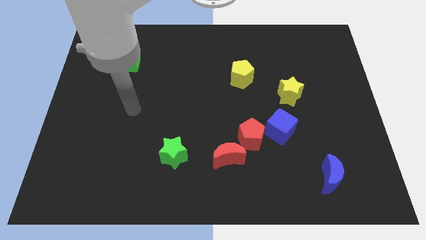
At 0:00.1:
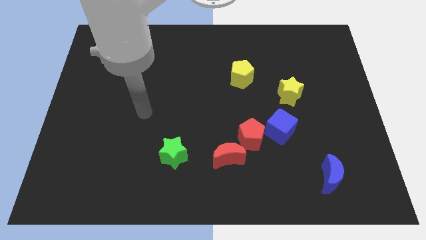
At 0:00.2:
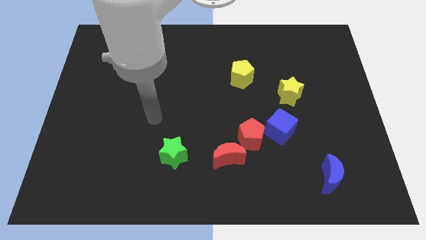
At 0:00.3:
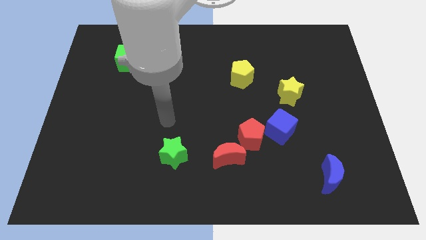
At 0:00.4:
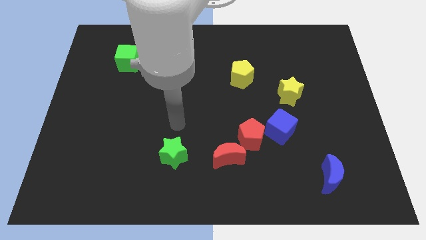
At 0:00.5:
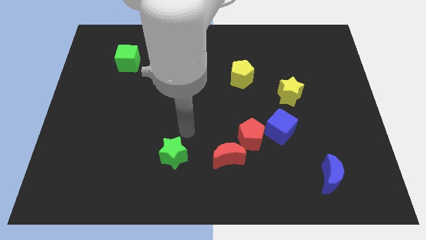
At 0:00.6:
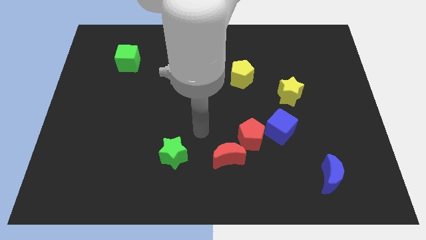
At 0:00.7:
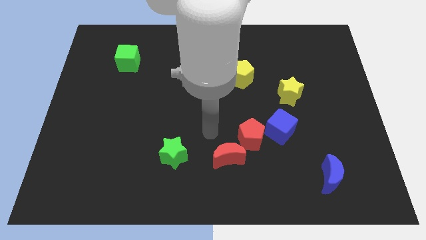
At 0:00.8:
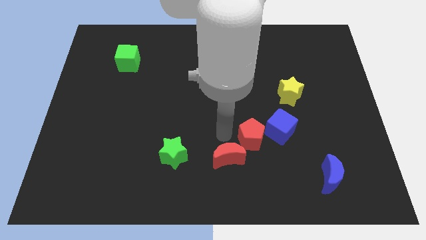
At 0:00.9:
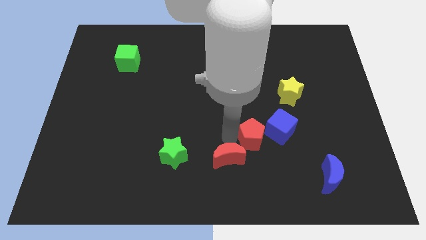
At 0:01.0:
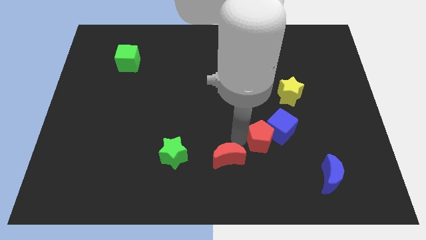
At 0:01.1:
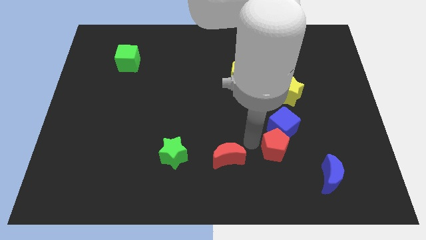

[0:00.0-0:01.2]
move the red moon away from the red pentagon

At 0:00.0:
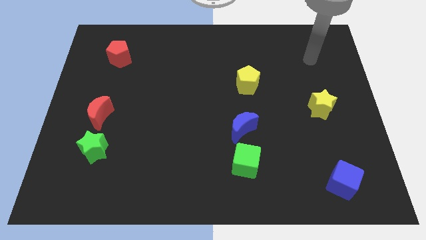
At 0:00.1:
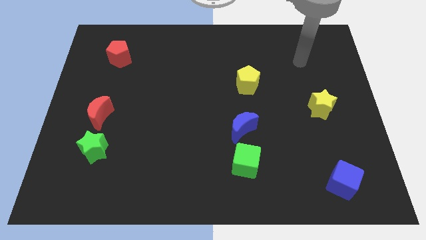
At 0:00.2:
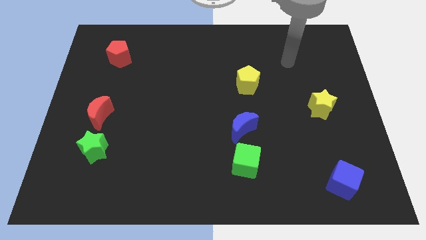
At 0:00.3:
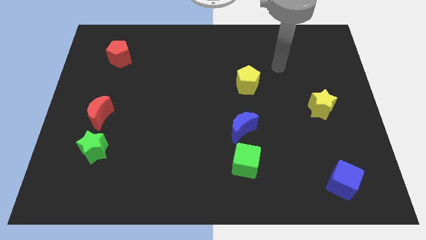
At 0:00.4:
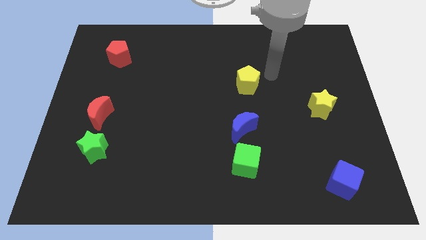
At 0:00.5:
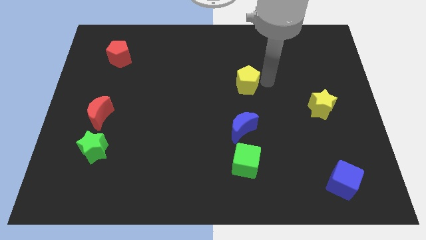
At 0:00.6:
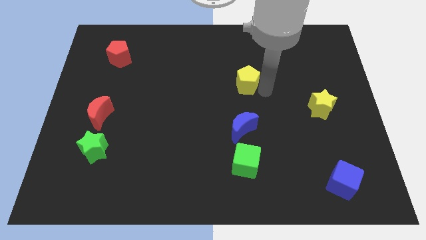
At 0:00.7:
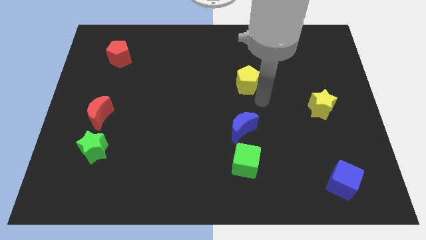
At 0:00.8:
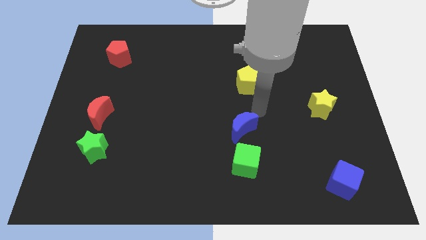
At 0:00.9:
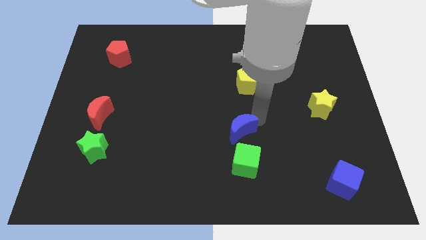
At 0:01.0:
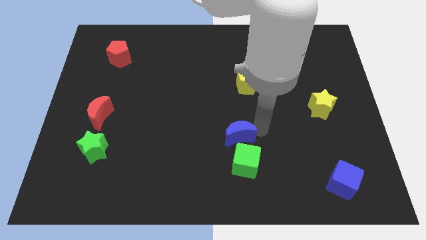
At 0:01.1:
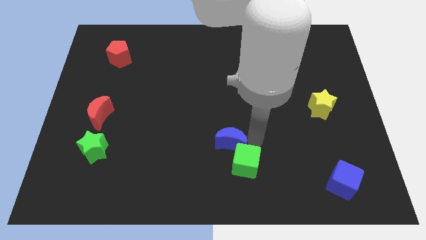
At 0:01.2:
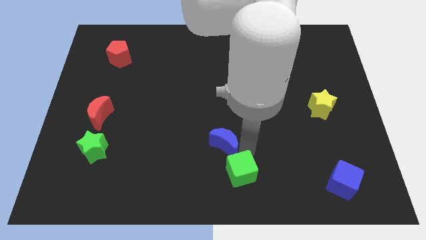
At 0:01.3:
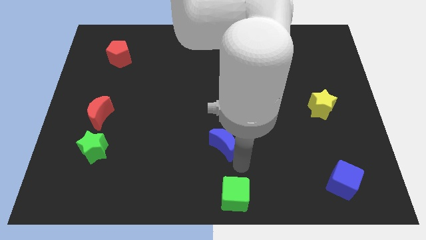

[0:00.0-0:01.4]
pull the blue moon apart from the green cube

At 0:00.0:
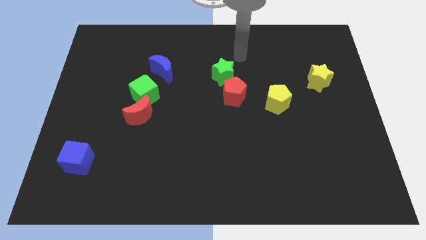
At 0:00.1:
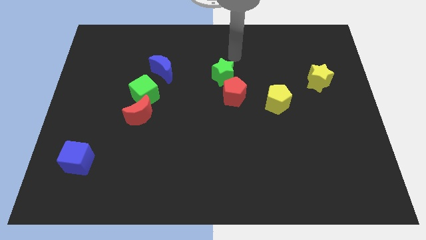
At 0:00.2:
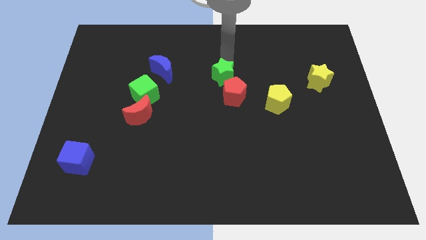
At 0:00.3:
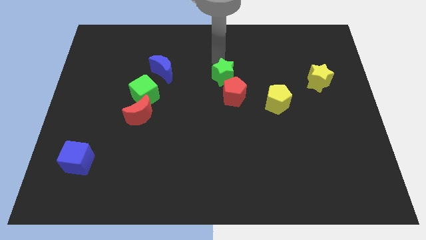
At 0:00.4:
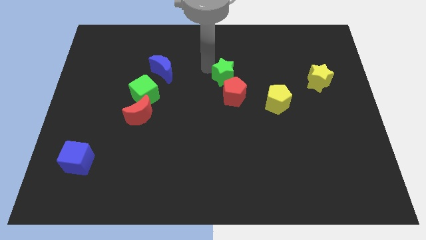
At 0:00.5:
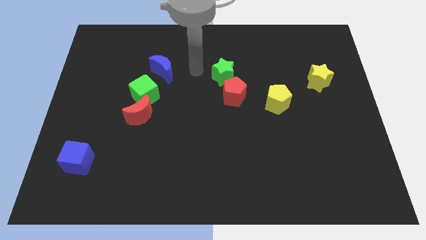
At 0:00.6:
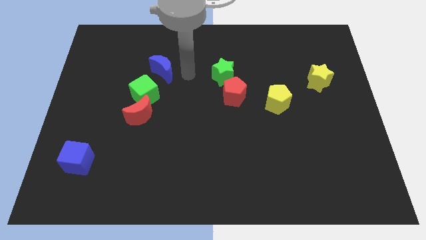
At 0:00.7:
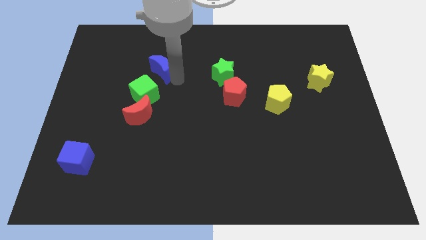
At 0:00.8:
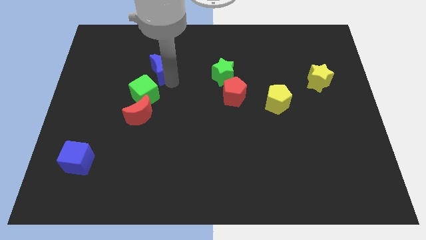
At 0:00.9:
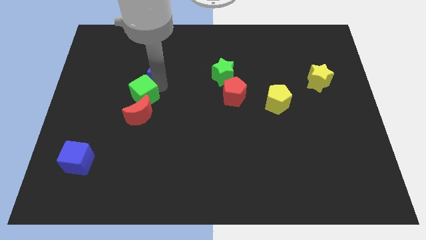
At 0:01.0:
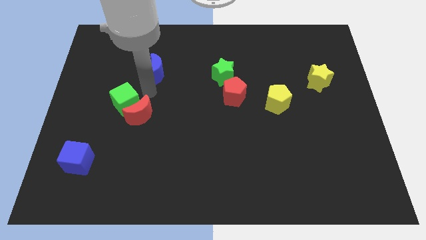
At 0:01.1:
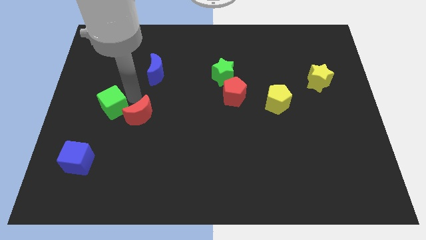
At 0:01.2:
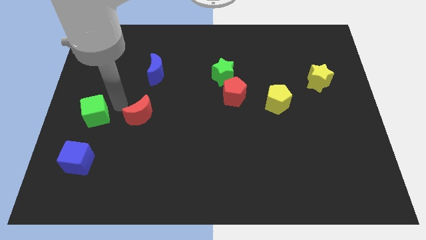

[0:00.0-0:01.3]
pull the red moon apart from the green cube

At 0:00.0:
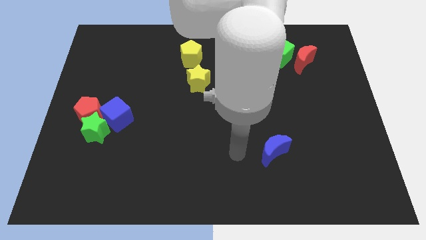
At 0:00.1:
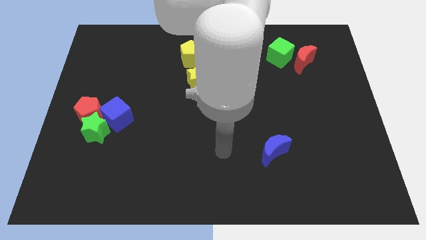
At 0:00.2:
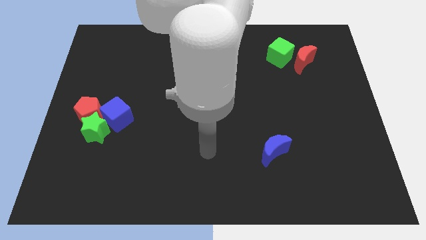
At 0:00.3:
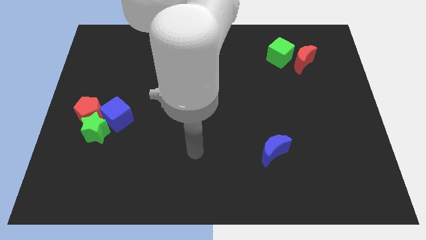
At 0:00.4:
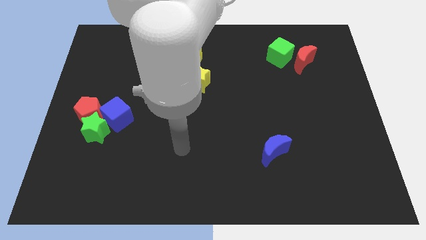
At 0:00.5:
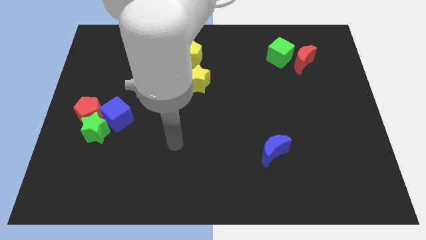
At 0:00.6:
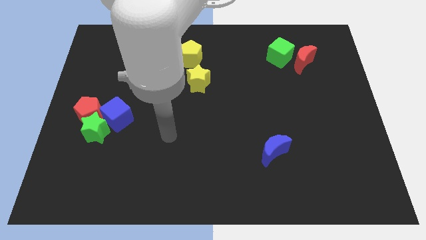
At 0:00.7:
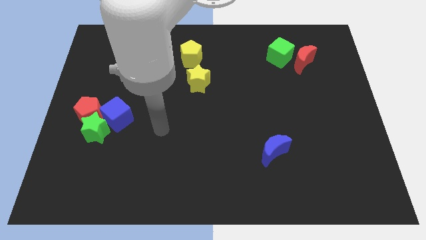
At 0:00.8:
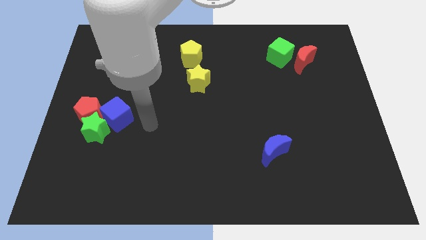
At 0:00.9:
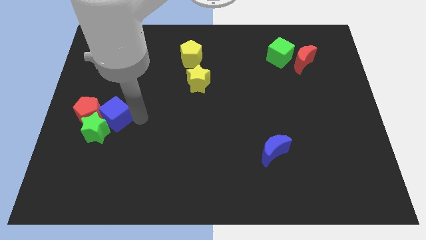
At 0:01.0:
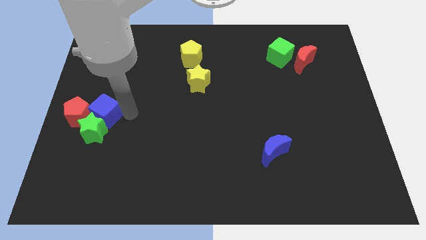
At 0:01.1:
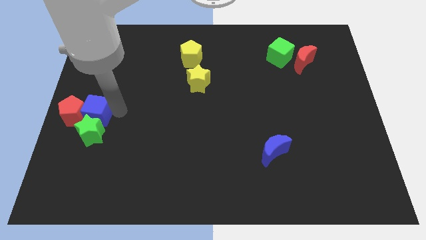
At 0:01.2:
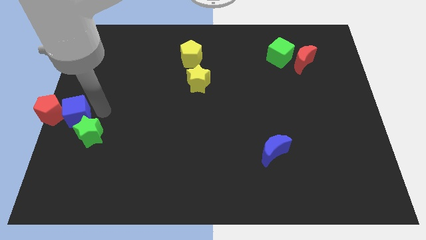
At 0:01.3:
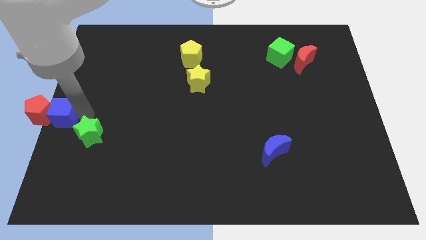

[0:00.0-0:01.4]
move the green star away from the red pentagon and blue cube

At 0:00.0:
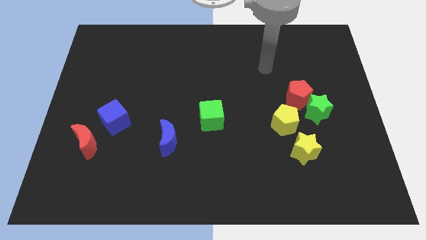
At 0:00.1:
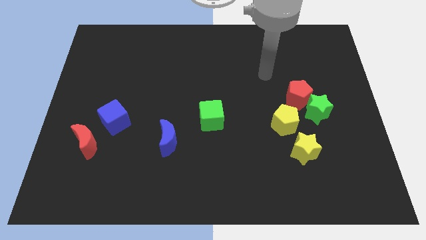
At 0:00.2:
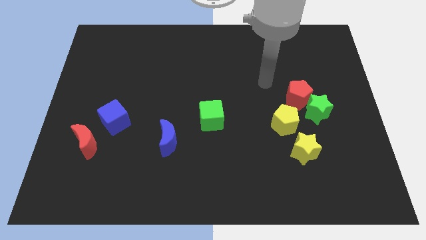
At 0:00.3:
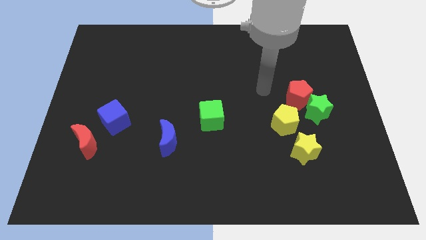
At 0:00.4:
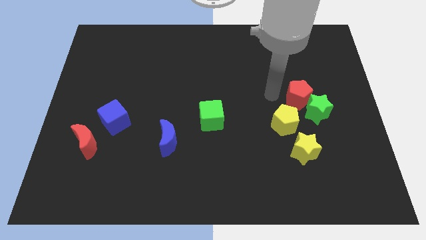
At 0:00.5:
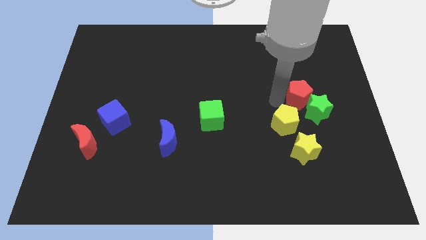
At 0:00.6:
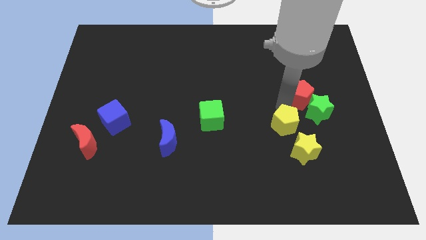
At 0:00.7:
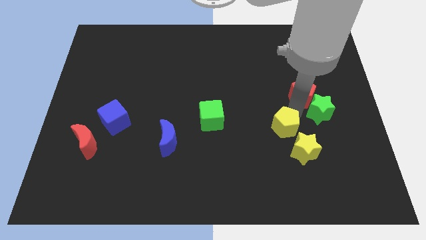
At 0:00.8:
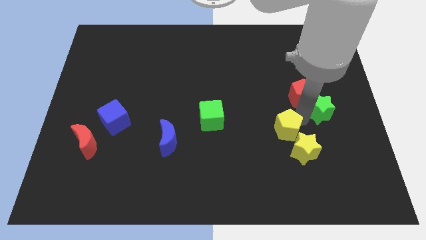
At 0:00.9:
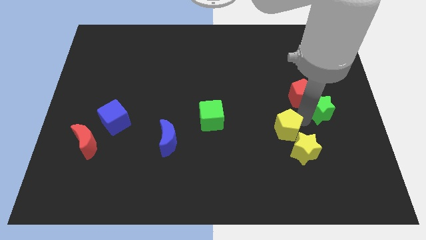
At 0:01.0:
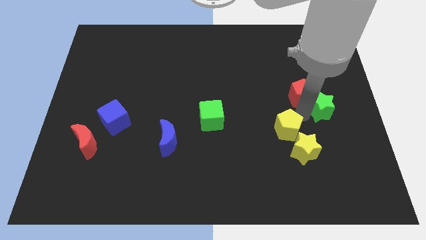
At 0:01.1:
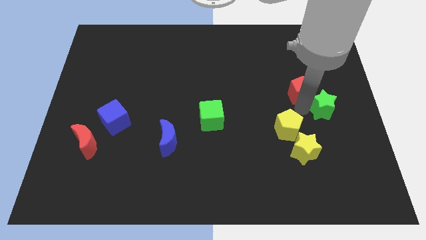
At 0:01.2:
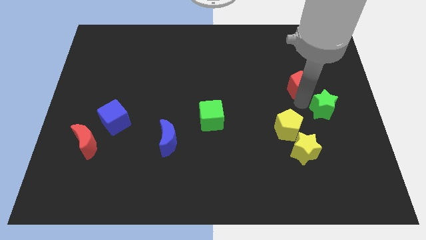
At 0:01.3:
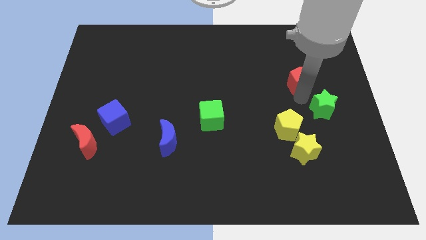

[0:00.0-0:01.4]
separate the red pentagon from the green star and yellow pentagon

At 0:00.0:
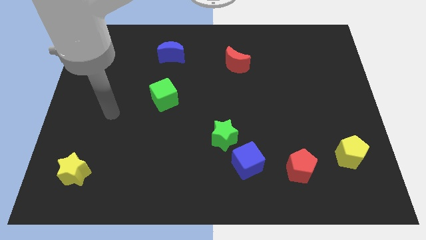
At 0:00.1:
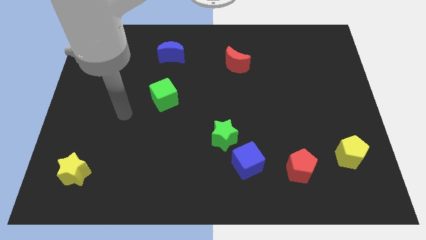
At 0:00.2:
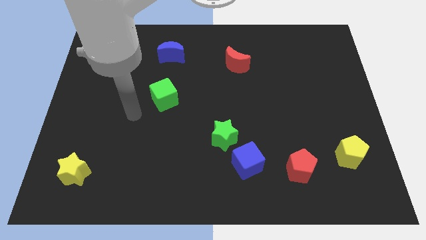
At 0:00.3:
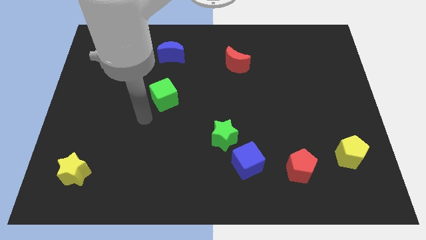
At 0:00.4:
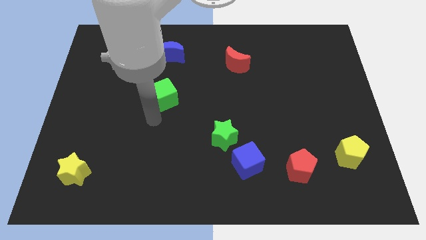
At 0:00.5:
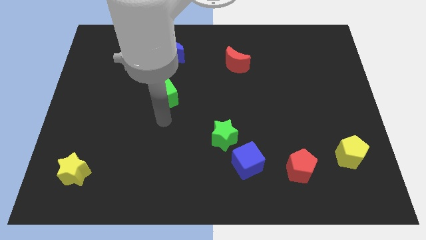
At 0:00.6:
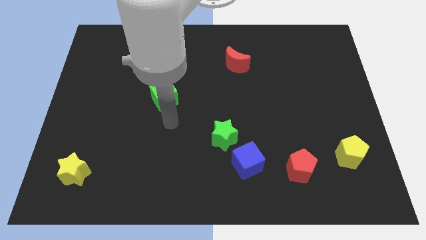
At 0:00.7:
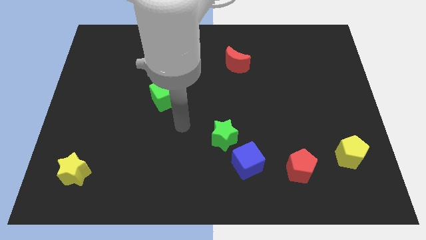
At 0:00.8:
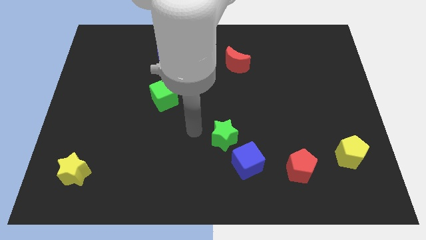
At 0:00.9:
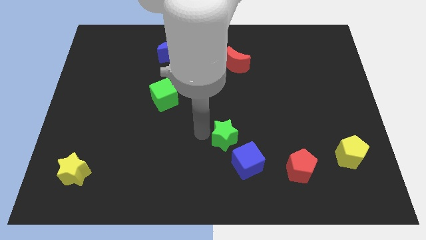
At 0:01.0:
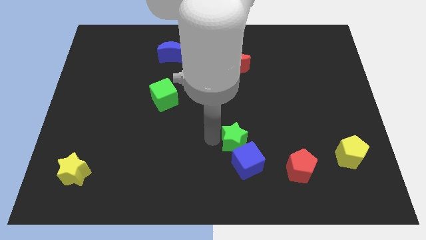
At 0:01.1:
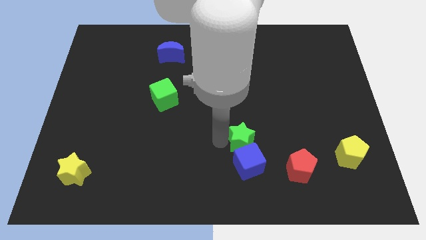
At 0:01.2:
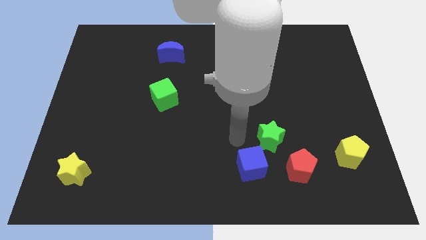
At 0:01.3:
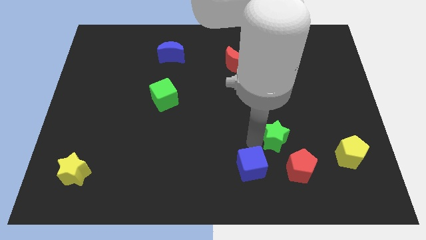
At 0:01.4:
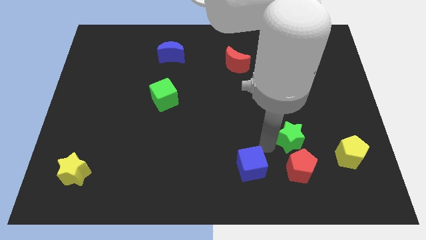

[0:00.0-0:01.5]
move the blue cube away from the green star

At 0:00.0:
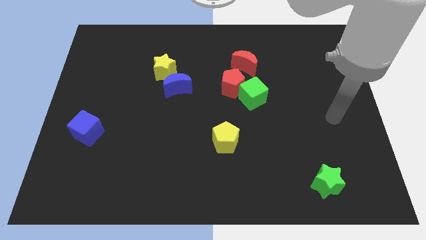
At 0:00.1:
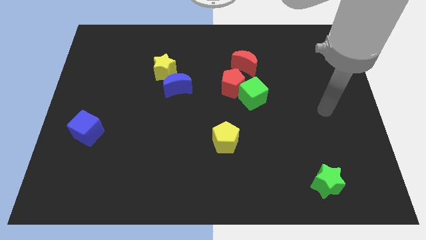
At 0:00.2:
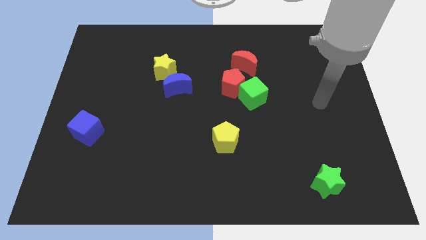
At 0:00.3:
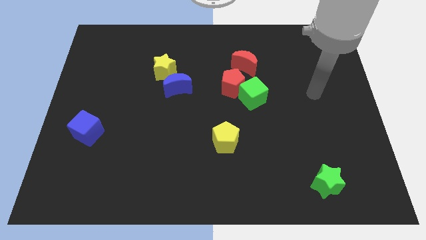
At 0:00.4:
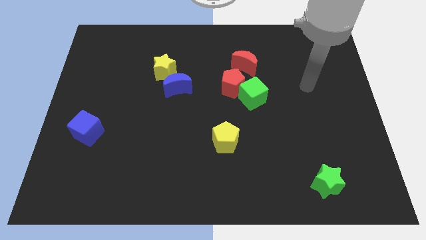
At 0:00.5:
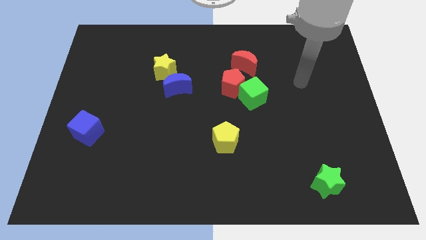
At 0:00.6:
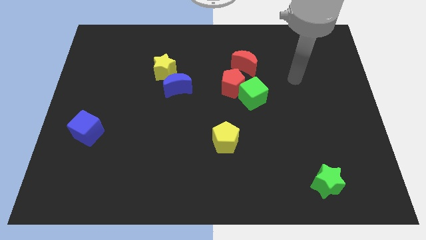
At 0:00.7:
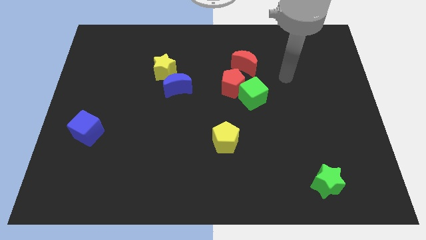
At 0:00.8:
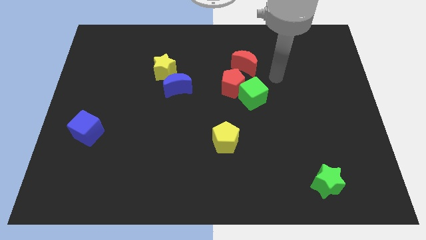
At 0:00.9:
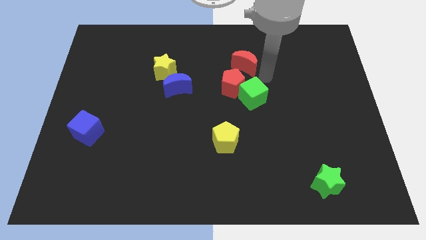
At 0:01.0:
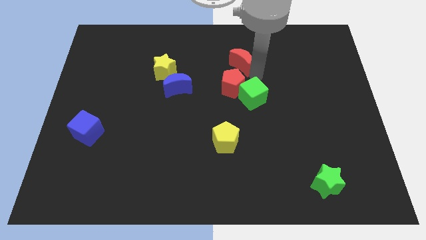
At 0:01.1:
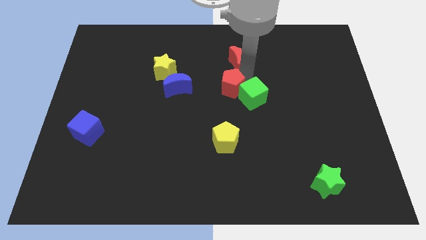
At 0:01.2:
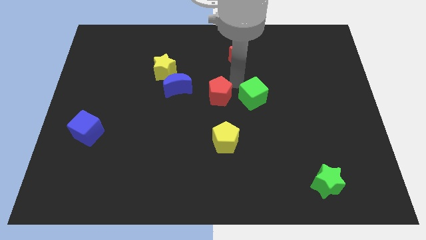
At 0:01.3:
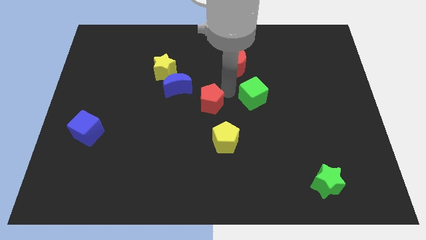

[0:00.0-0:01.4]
pull the green cube apart from the red pentagon
